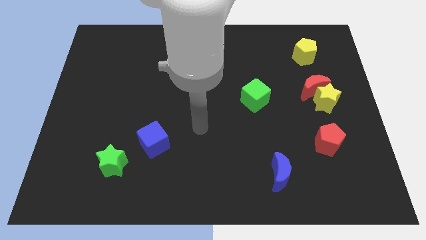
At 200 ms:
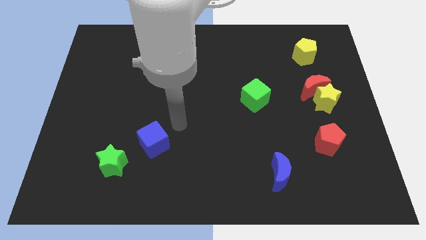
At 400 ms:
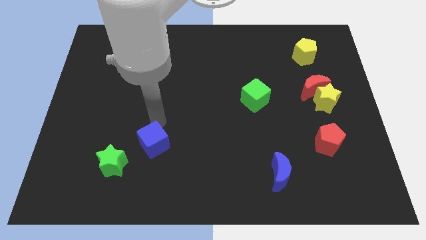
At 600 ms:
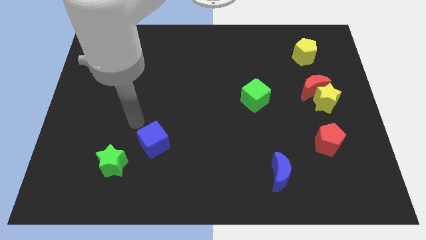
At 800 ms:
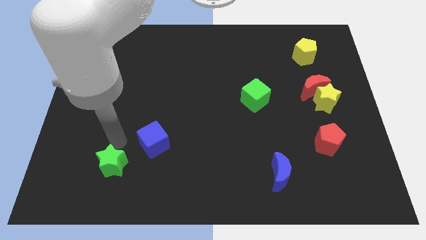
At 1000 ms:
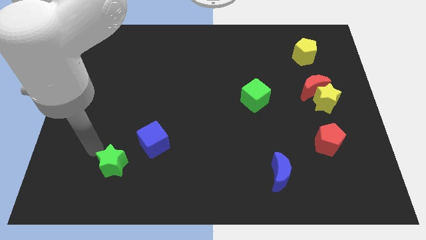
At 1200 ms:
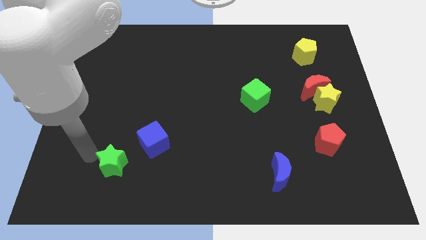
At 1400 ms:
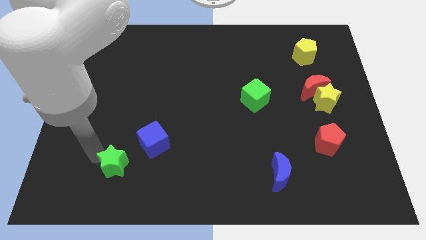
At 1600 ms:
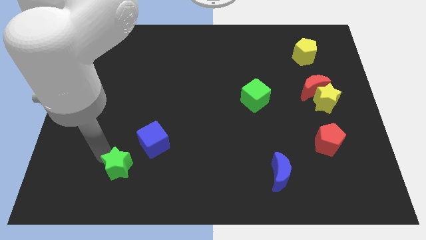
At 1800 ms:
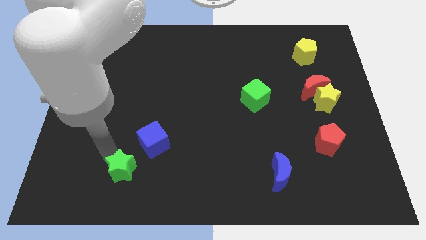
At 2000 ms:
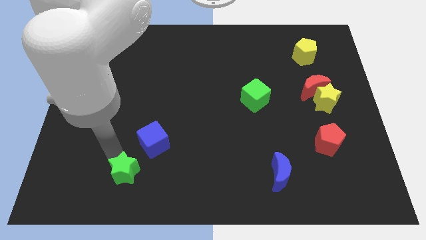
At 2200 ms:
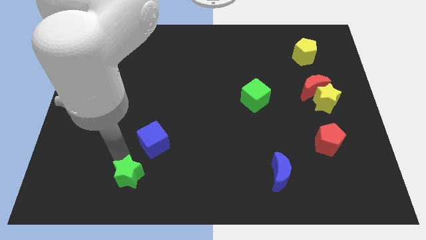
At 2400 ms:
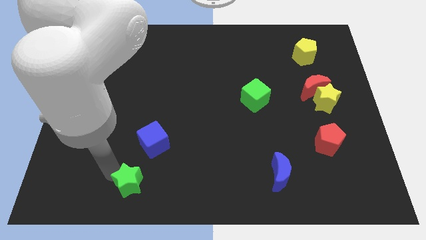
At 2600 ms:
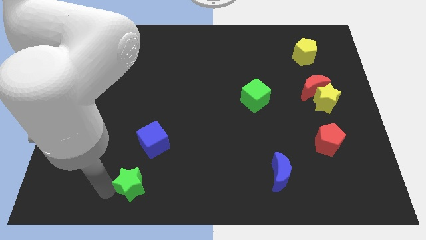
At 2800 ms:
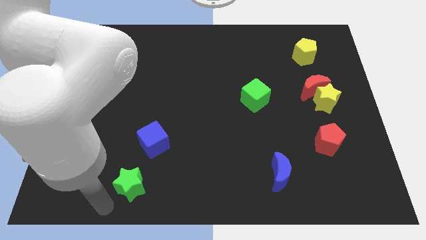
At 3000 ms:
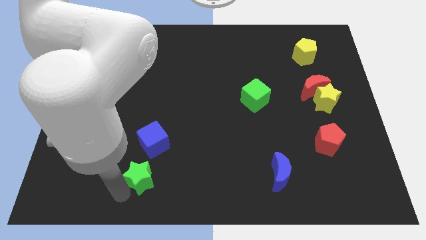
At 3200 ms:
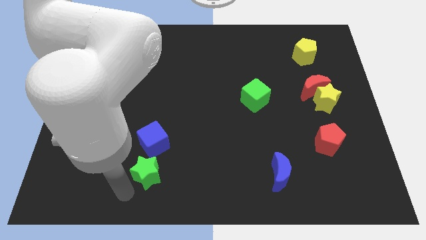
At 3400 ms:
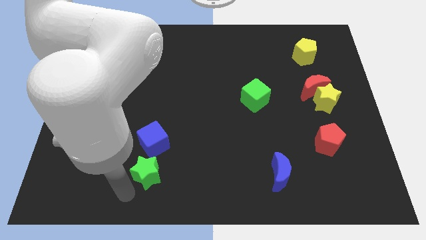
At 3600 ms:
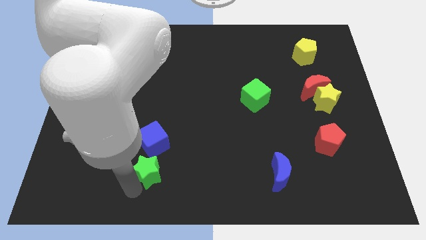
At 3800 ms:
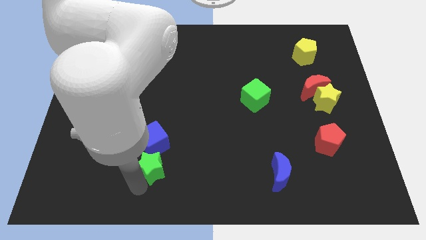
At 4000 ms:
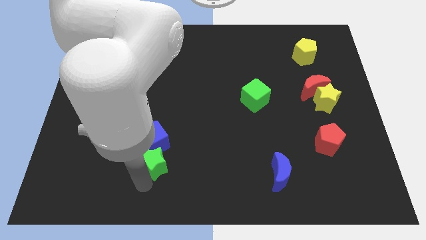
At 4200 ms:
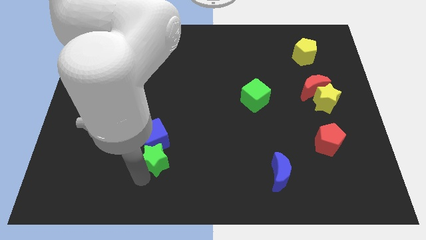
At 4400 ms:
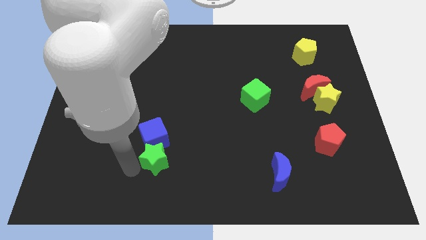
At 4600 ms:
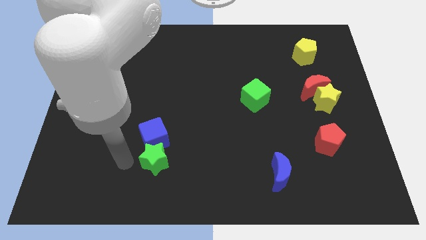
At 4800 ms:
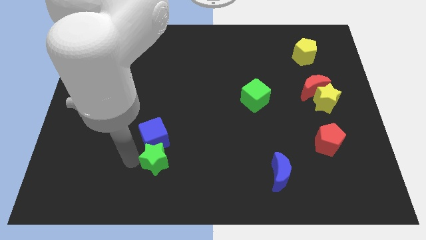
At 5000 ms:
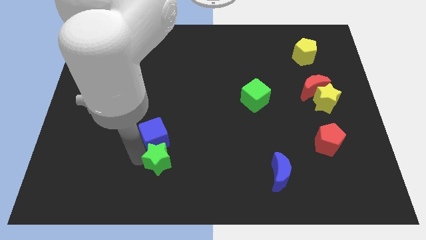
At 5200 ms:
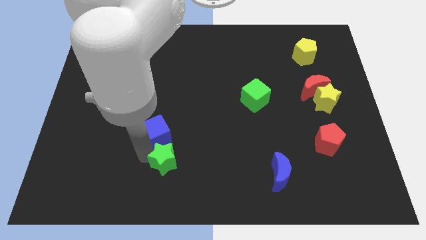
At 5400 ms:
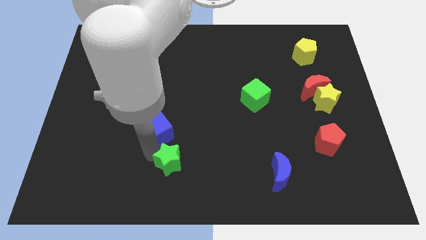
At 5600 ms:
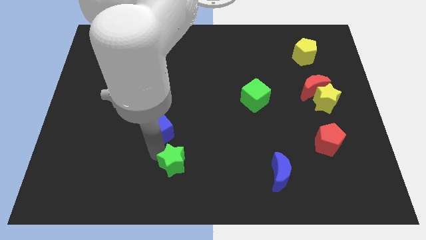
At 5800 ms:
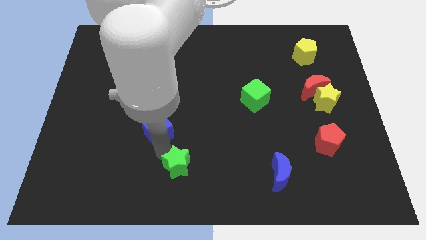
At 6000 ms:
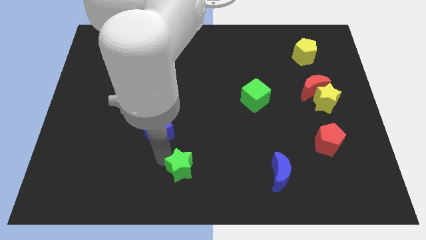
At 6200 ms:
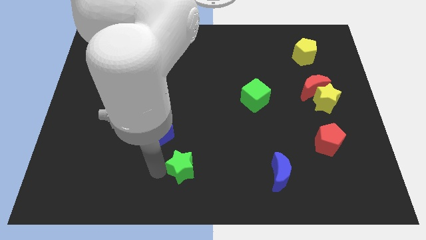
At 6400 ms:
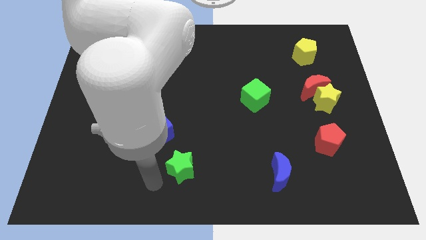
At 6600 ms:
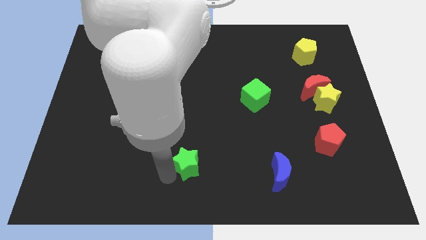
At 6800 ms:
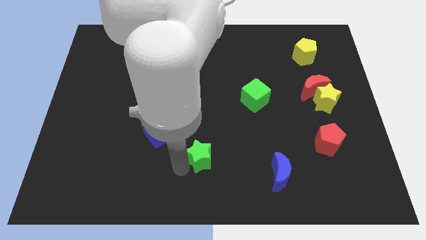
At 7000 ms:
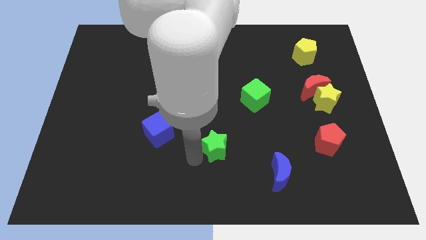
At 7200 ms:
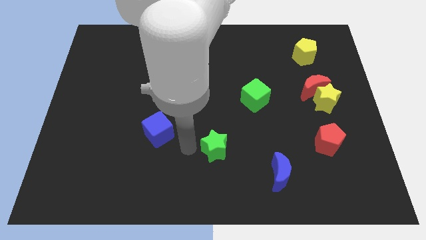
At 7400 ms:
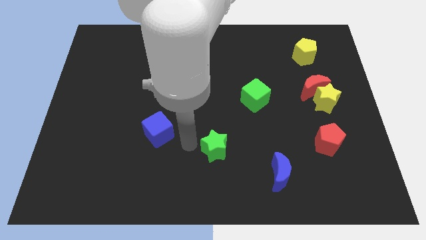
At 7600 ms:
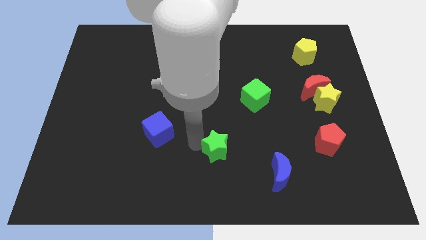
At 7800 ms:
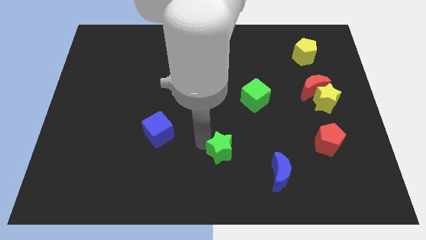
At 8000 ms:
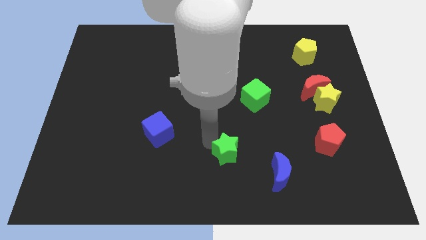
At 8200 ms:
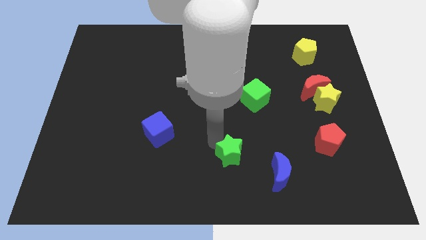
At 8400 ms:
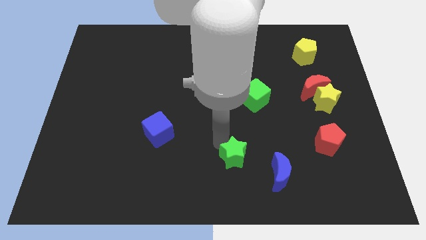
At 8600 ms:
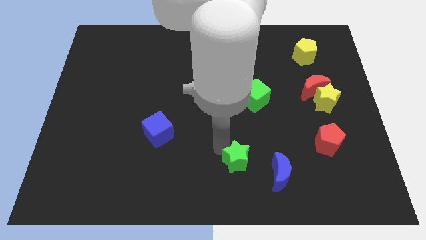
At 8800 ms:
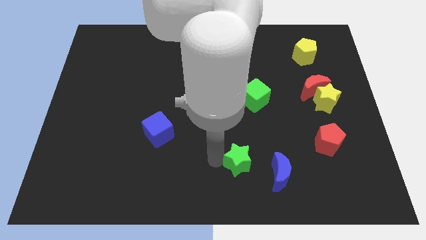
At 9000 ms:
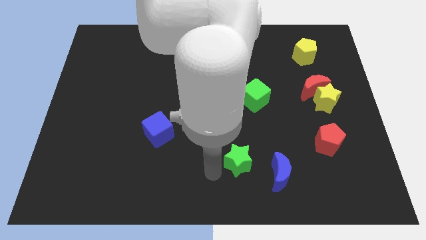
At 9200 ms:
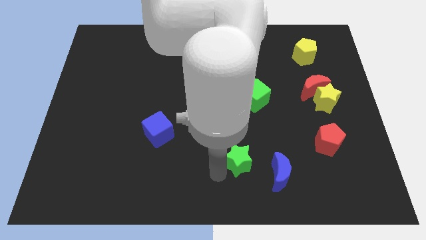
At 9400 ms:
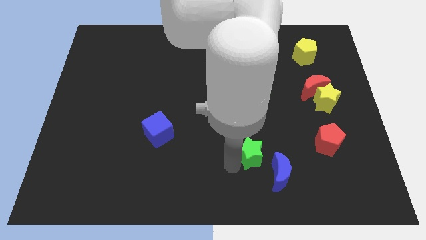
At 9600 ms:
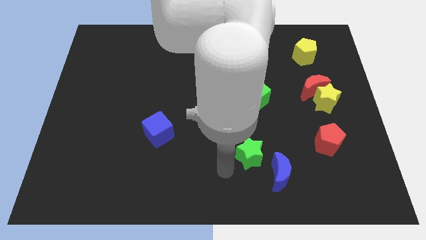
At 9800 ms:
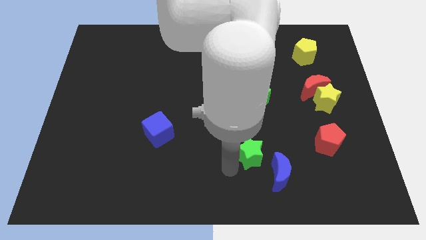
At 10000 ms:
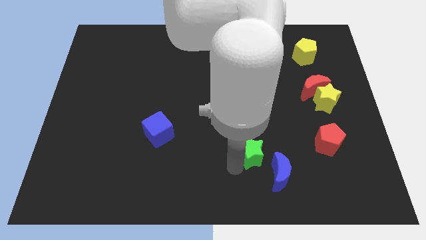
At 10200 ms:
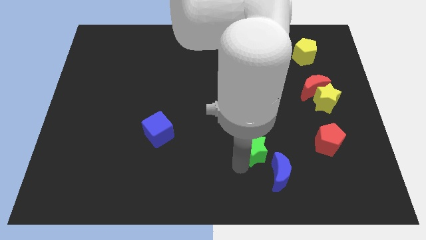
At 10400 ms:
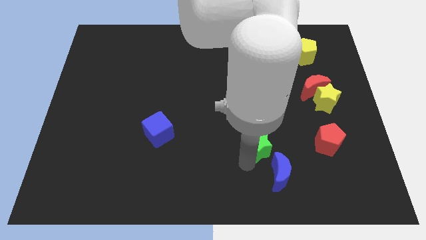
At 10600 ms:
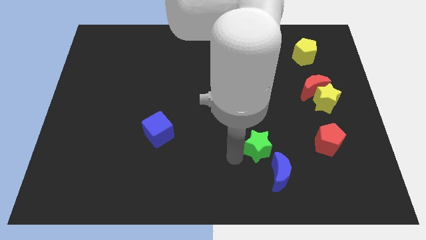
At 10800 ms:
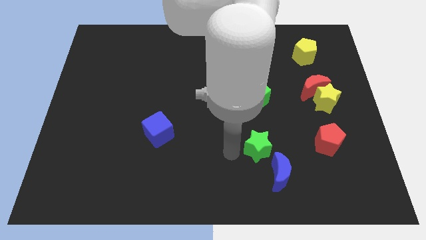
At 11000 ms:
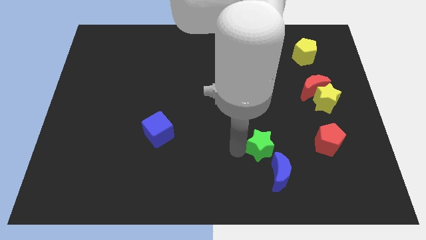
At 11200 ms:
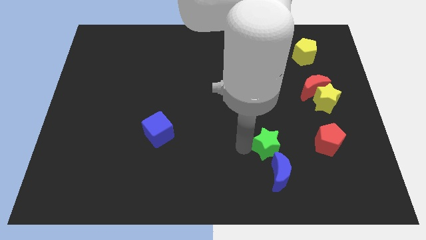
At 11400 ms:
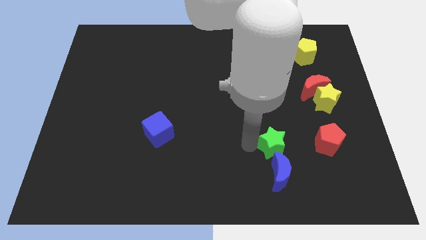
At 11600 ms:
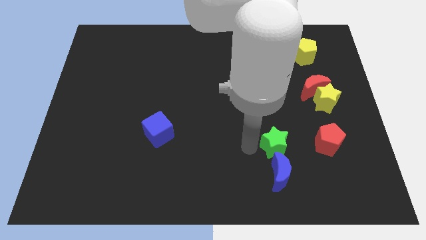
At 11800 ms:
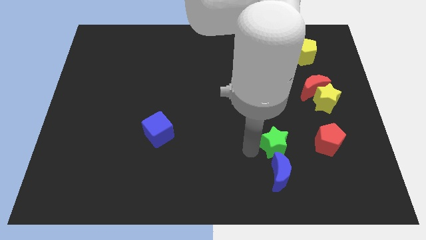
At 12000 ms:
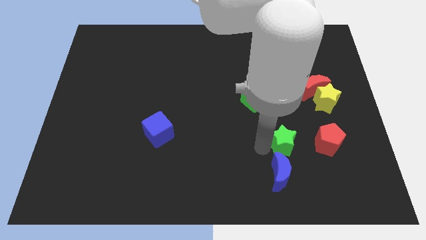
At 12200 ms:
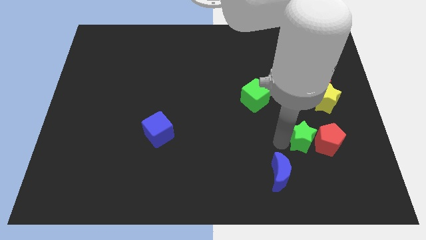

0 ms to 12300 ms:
put the green star close to the red pentagon

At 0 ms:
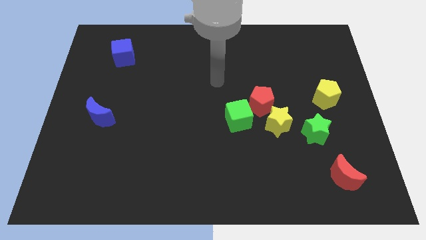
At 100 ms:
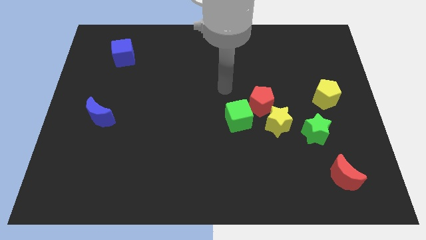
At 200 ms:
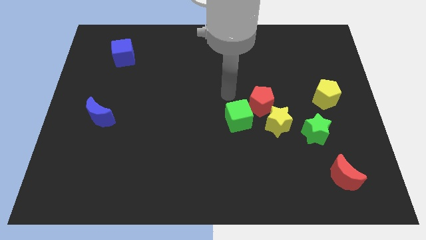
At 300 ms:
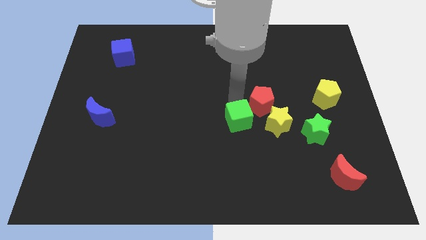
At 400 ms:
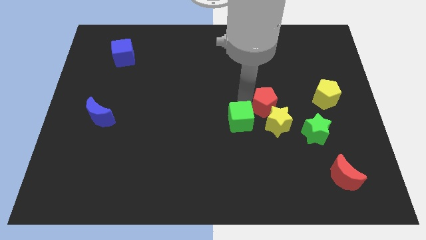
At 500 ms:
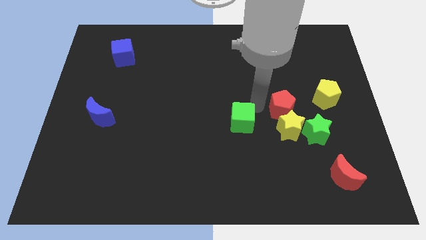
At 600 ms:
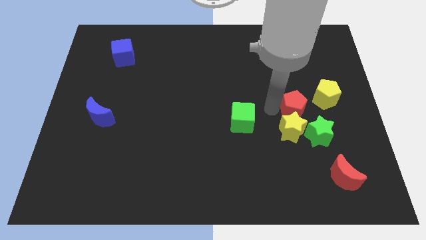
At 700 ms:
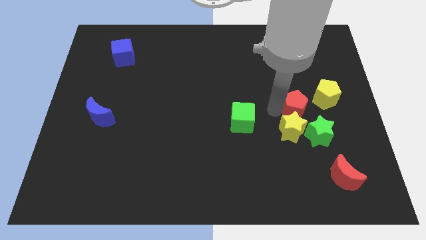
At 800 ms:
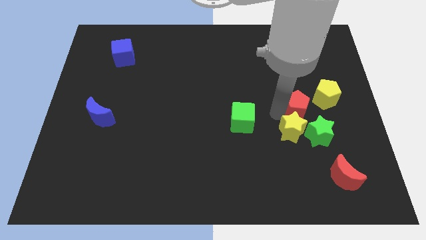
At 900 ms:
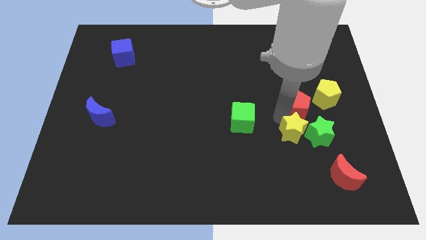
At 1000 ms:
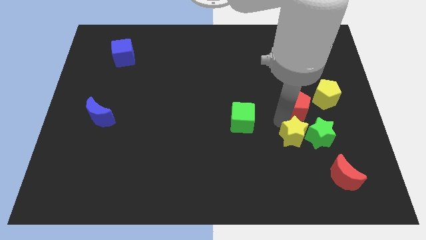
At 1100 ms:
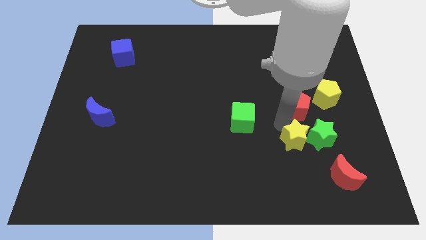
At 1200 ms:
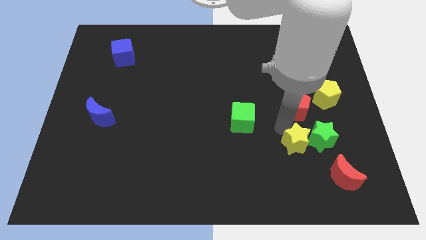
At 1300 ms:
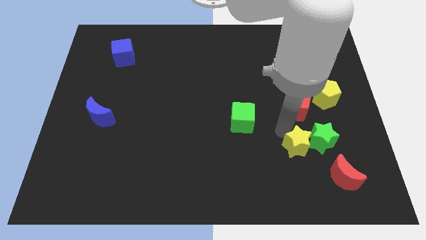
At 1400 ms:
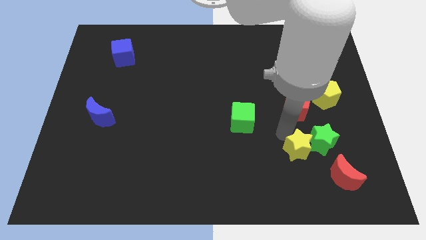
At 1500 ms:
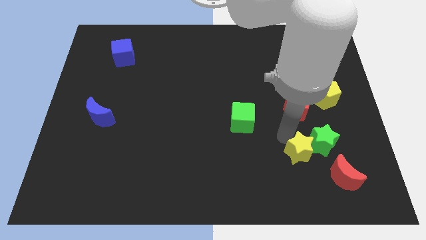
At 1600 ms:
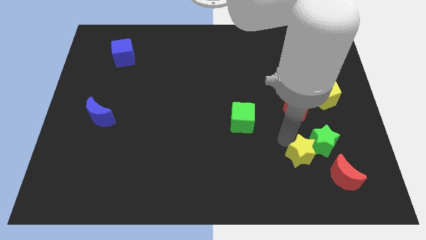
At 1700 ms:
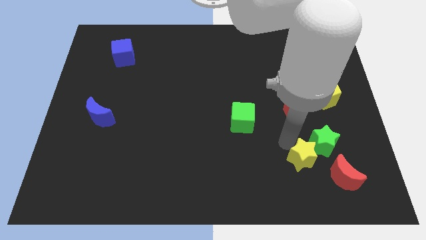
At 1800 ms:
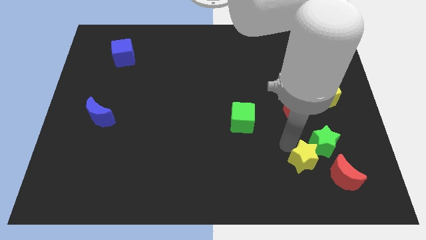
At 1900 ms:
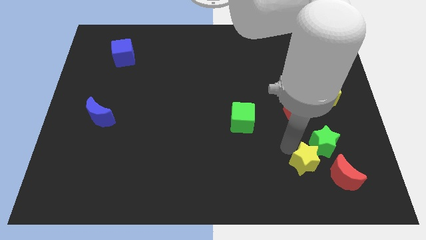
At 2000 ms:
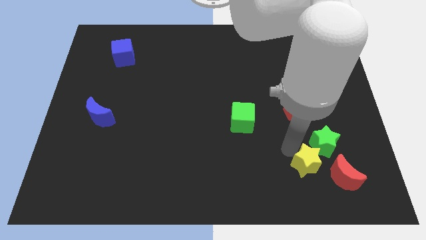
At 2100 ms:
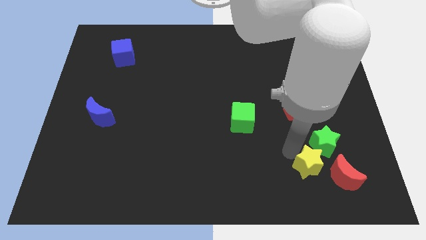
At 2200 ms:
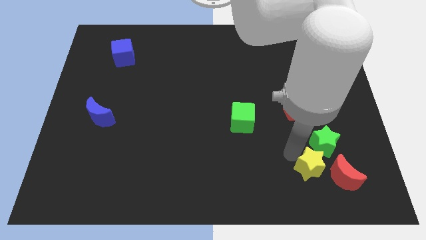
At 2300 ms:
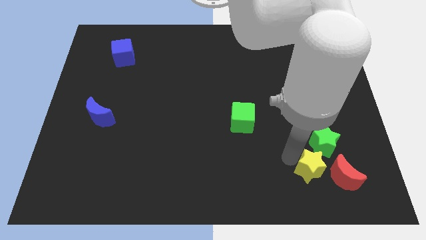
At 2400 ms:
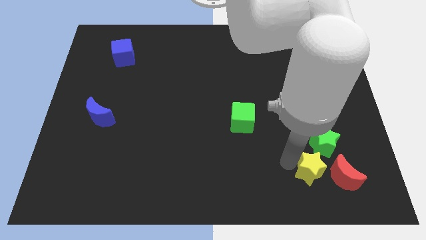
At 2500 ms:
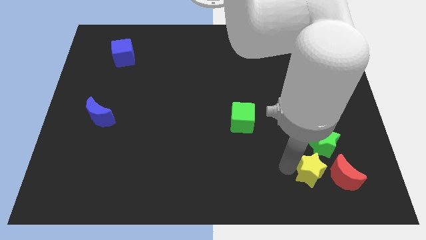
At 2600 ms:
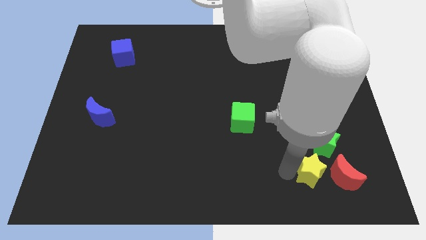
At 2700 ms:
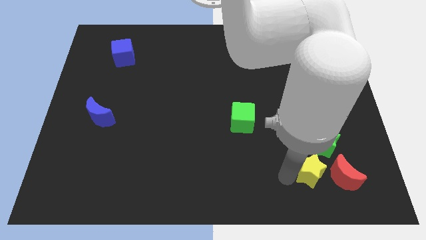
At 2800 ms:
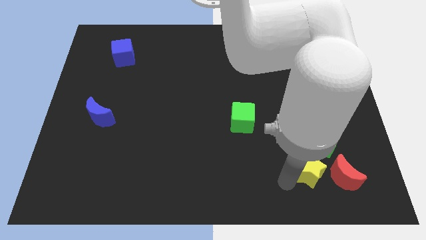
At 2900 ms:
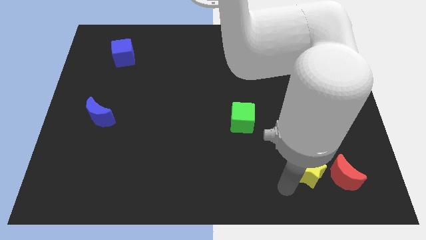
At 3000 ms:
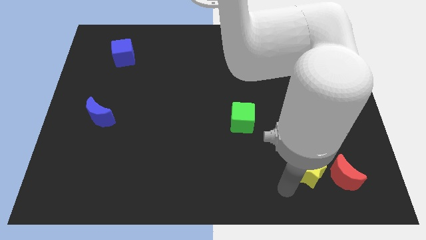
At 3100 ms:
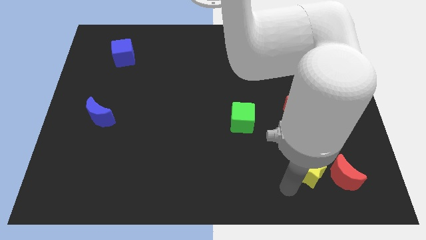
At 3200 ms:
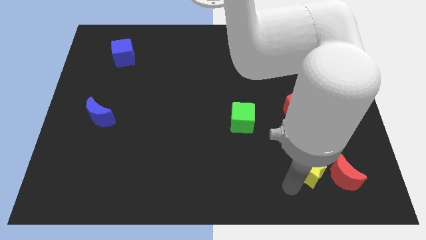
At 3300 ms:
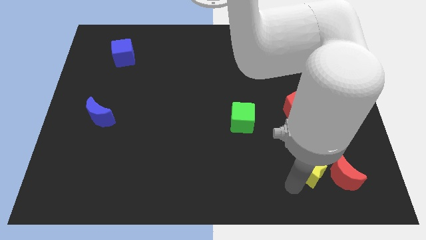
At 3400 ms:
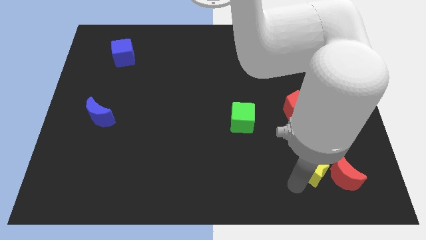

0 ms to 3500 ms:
push the yellow star close to the red moon
